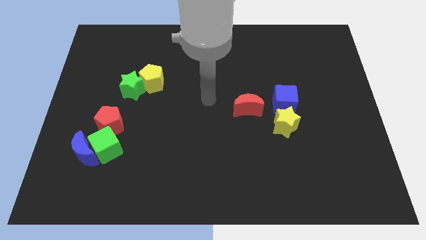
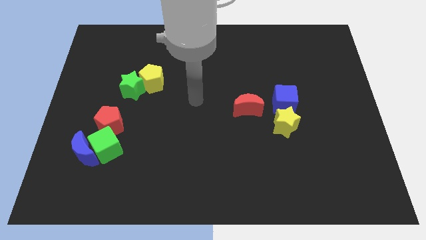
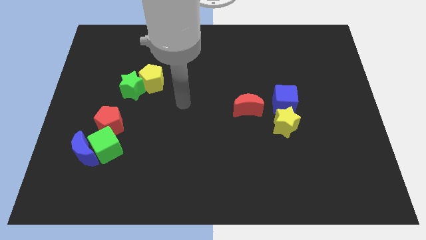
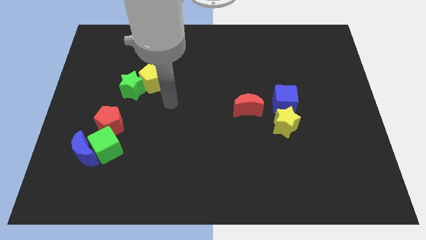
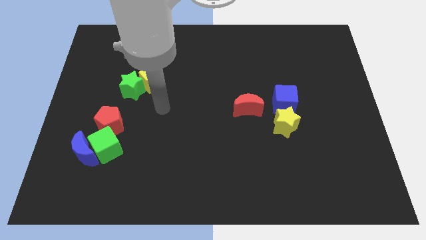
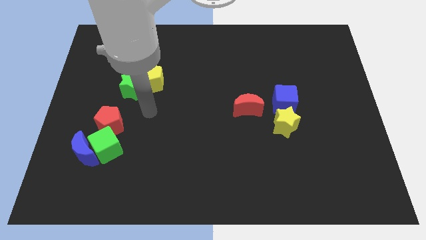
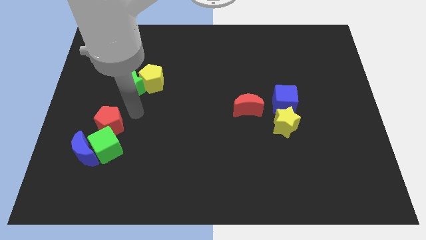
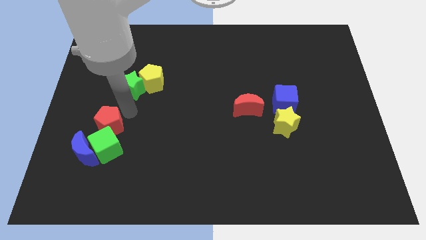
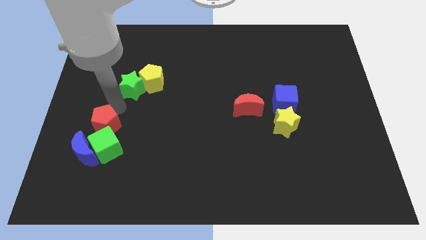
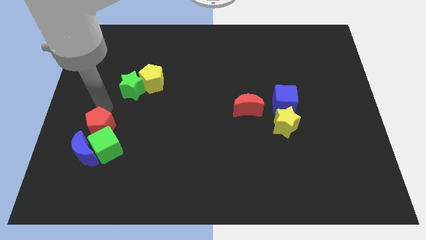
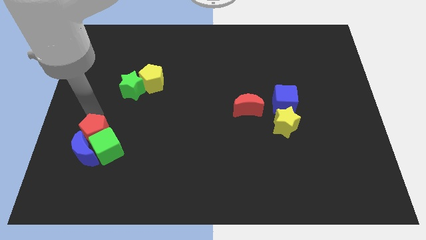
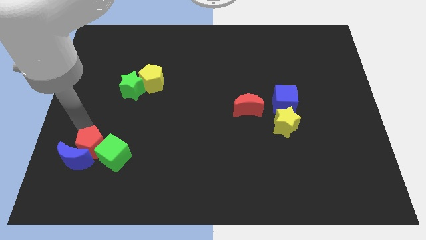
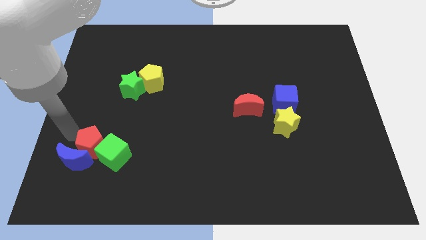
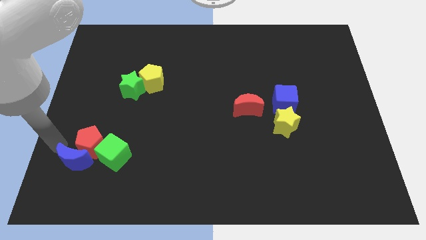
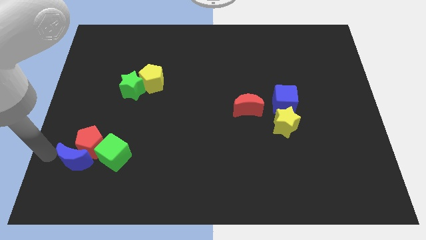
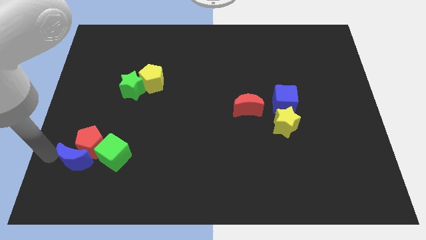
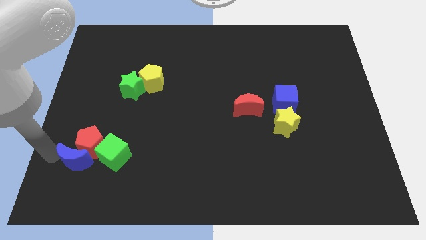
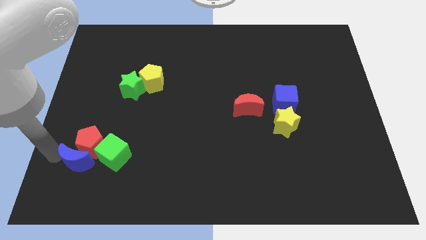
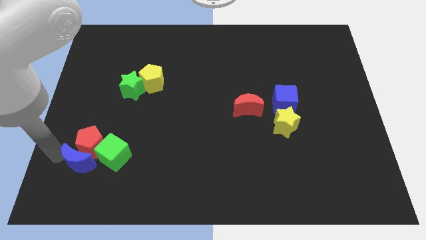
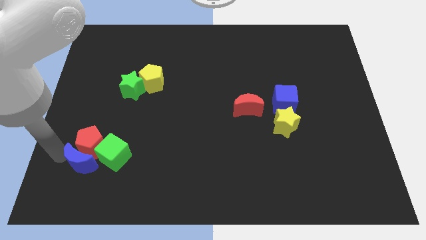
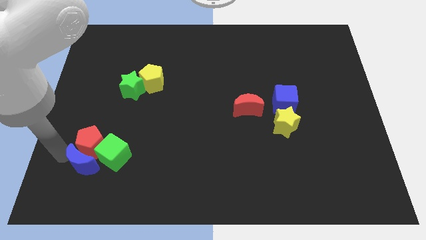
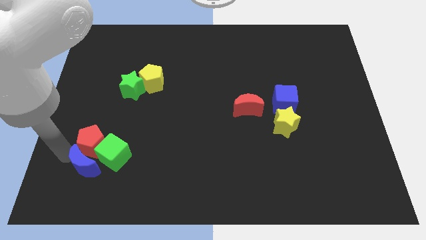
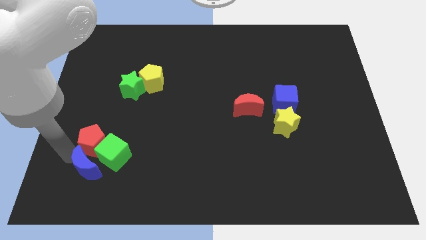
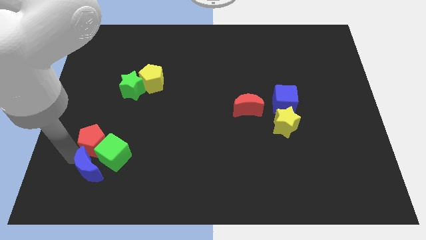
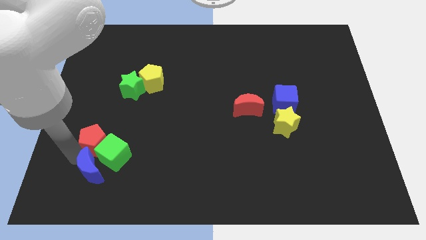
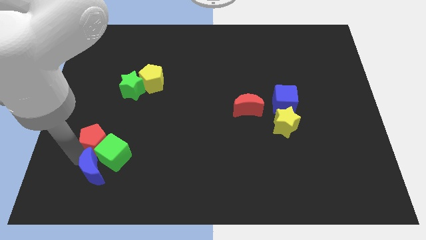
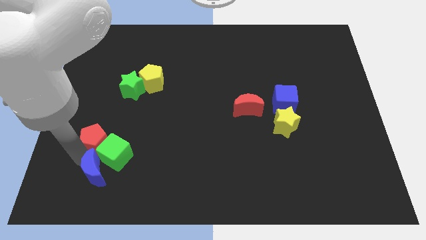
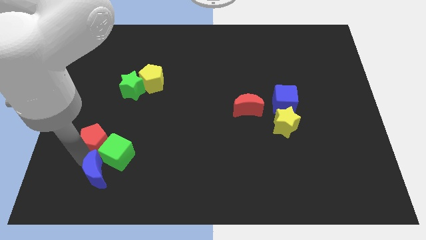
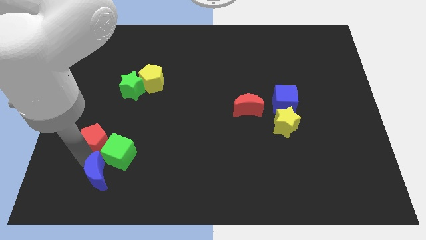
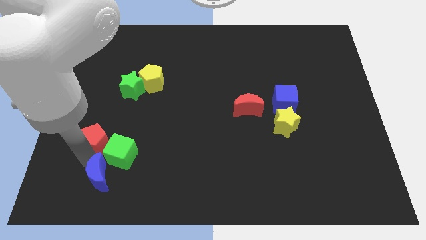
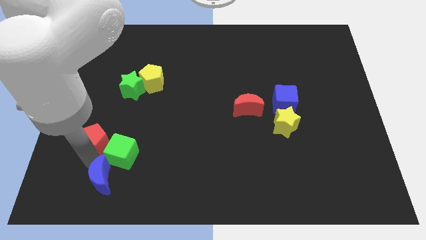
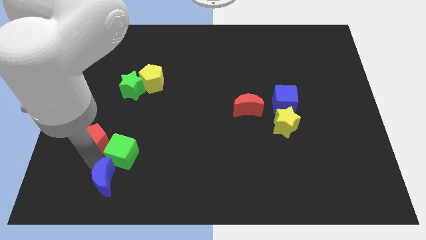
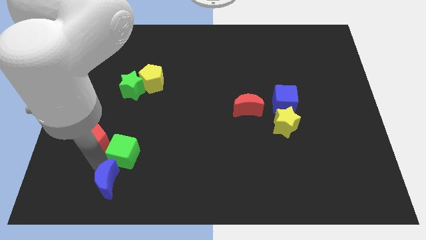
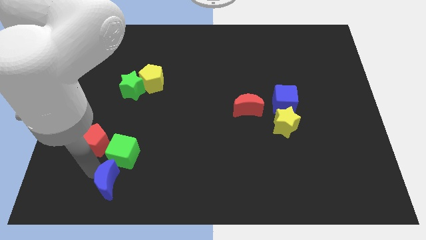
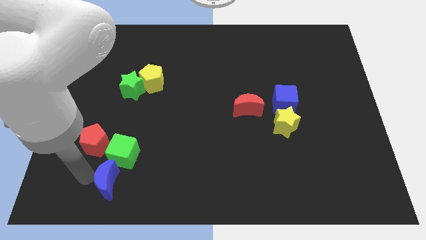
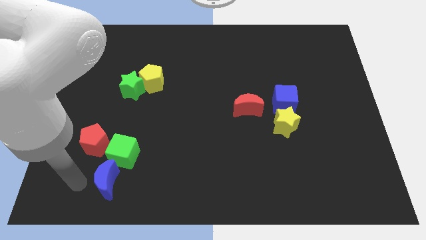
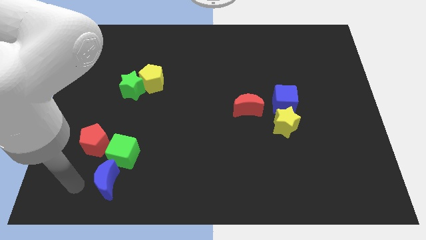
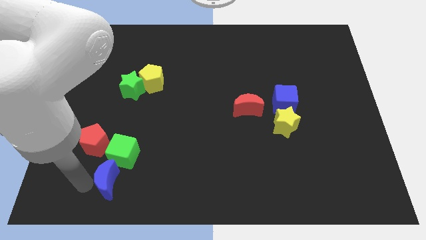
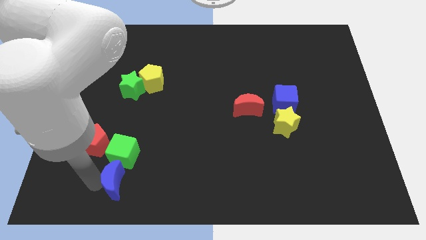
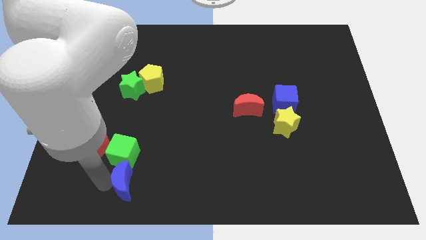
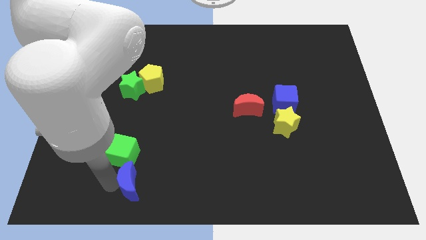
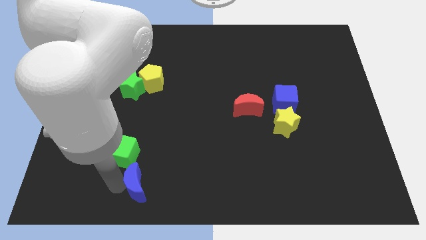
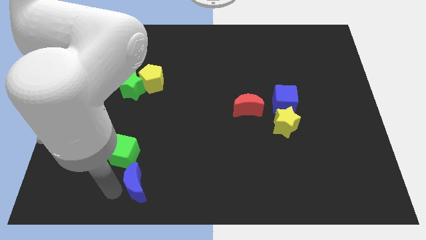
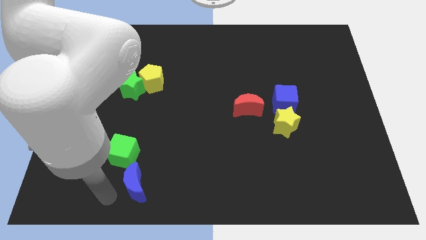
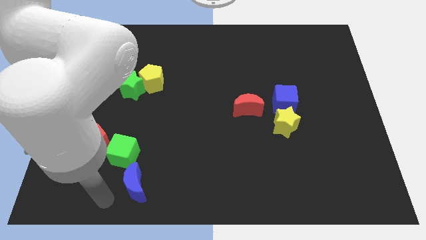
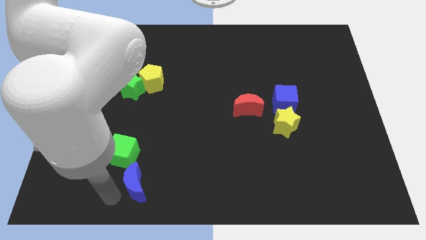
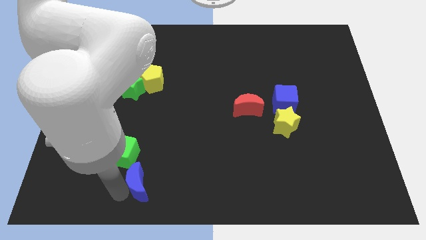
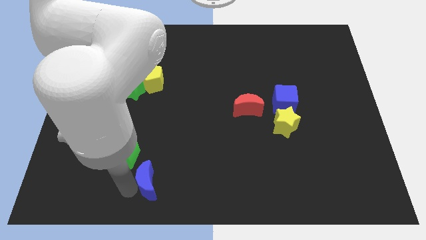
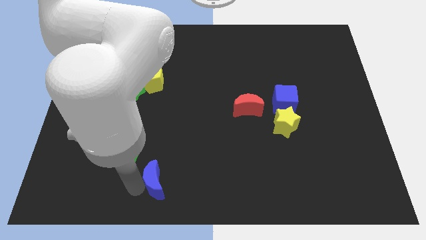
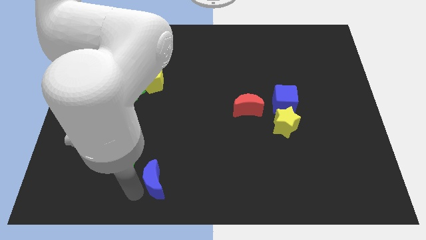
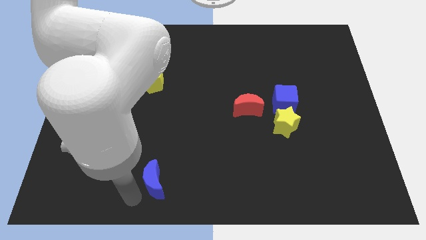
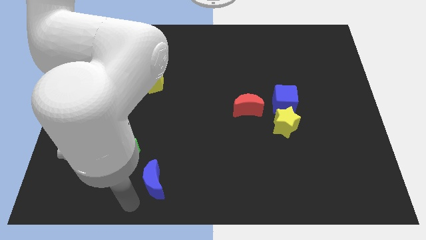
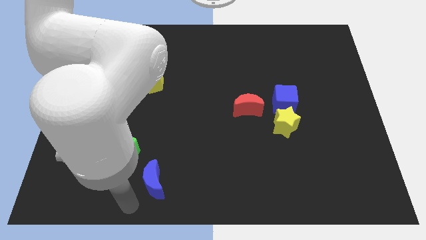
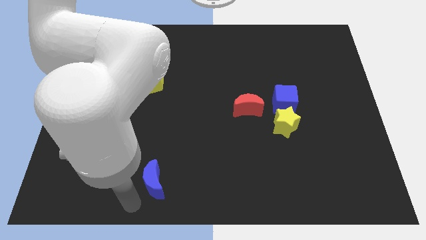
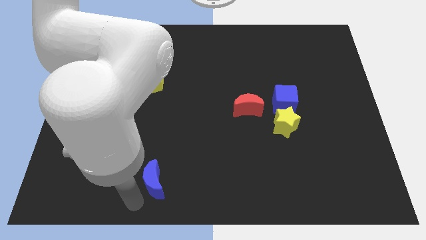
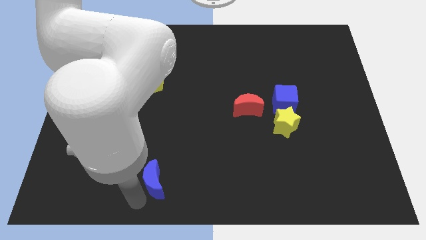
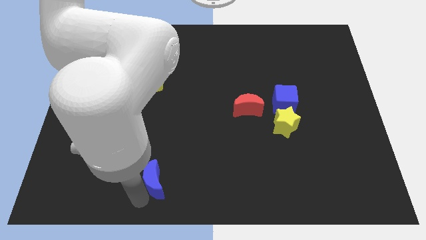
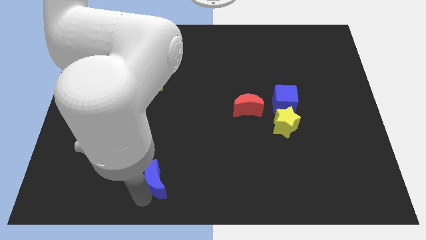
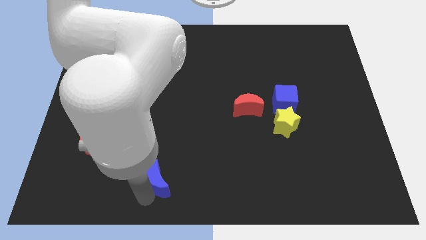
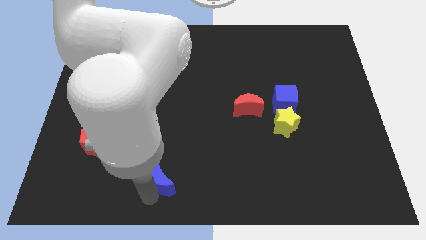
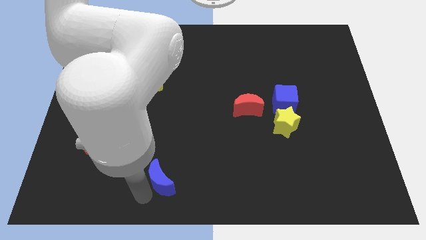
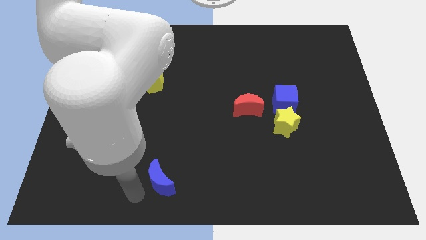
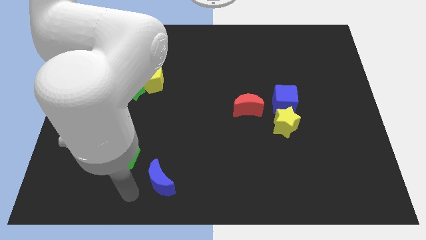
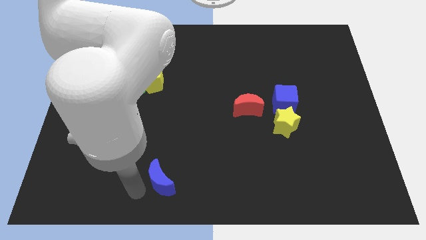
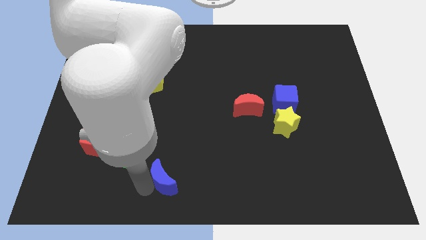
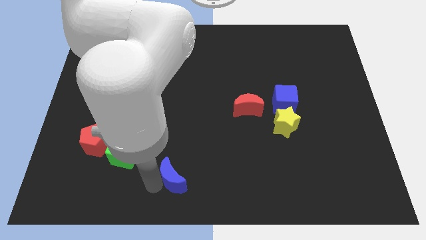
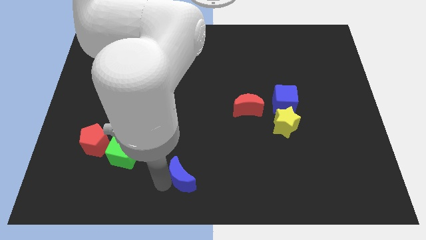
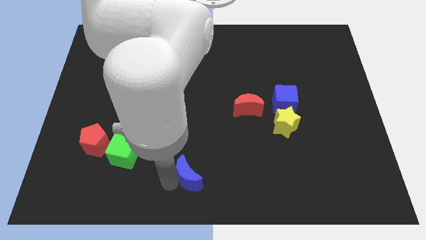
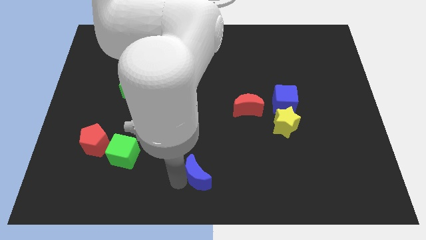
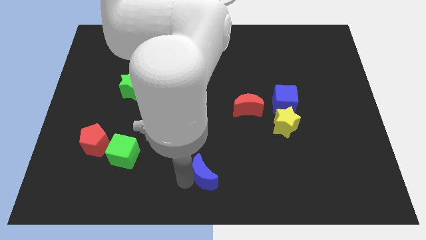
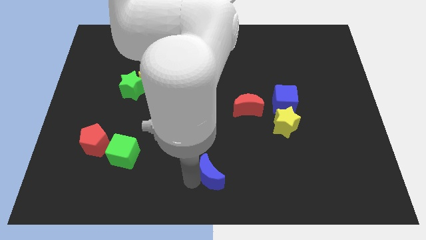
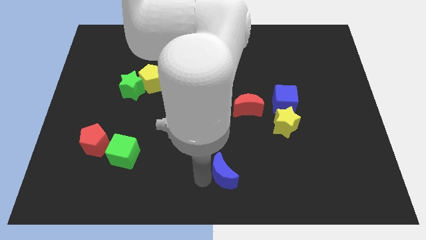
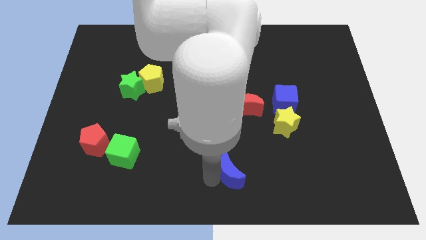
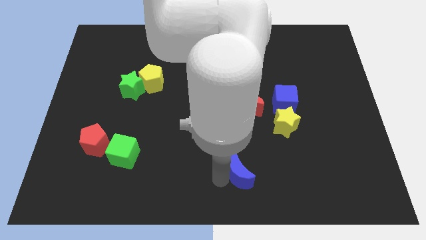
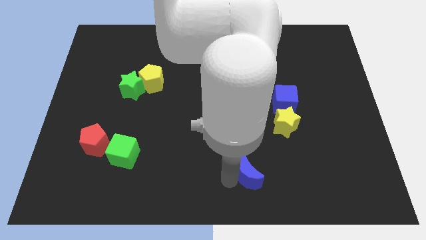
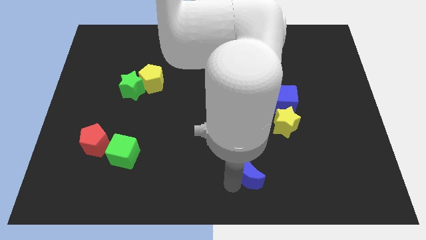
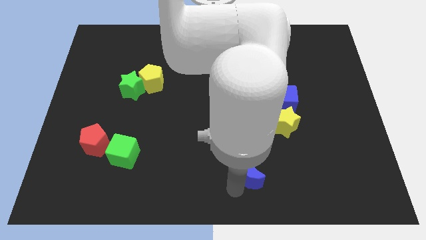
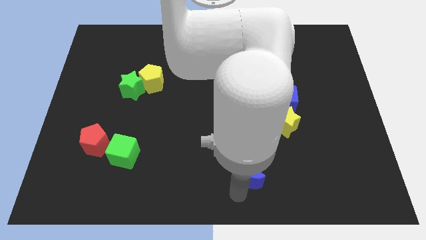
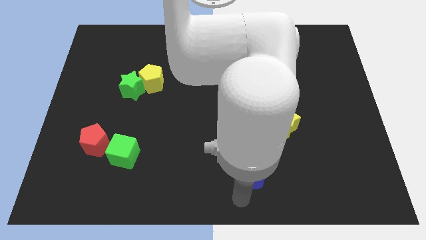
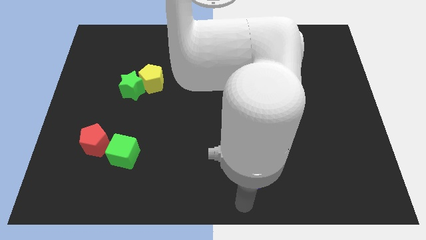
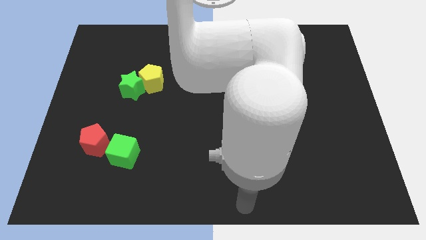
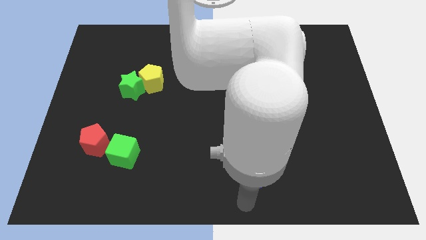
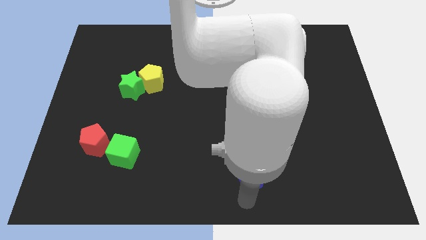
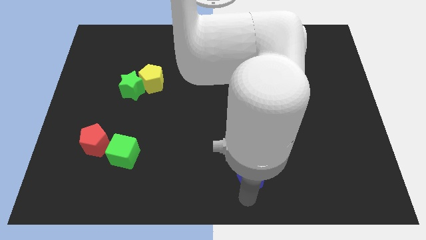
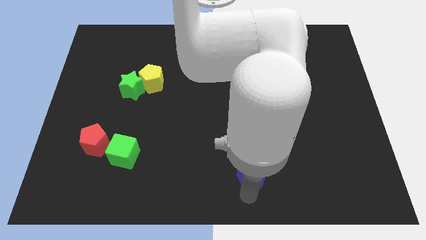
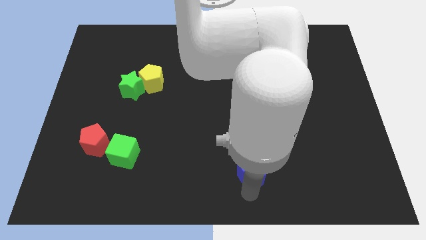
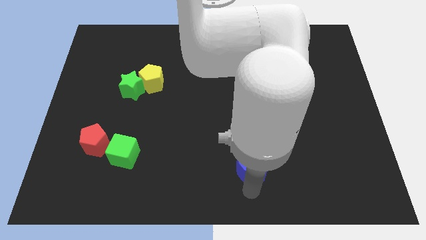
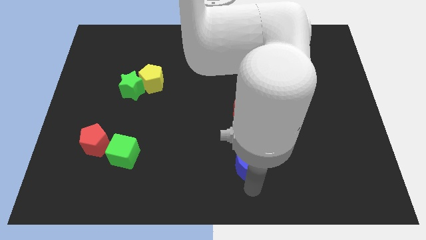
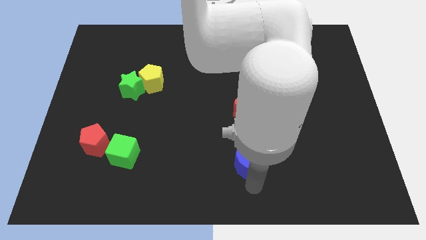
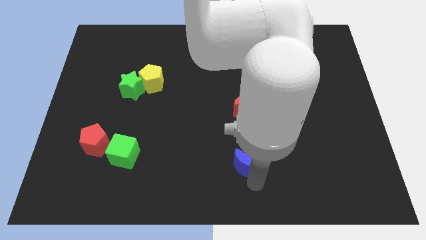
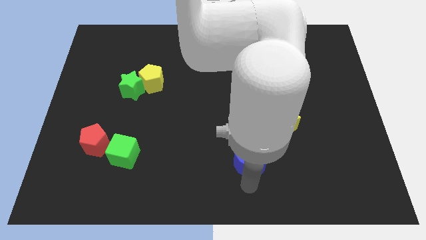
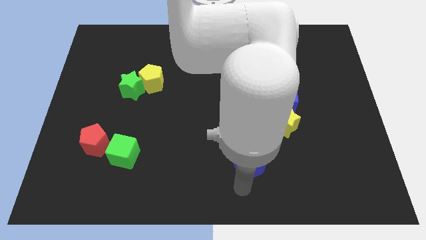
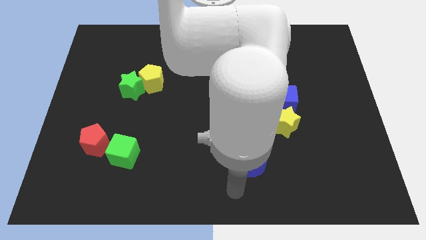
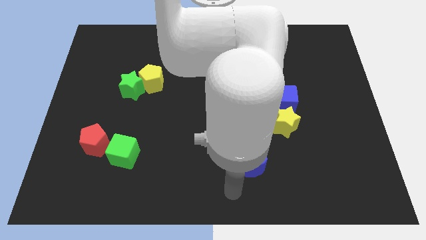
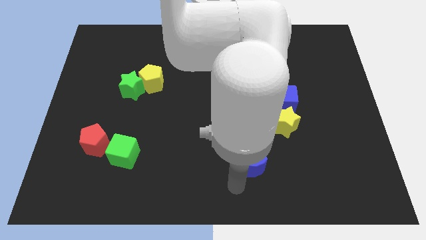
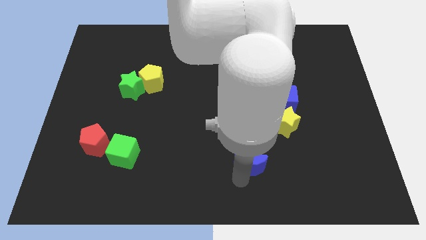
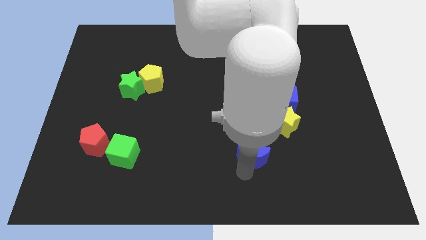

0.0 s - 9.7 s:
move the blue moon diagonally down and to the left of the yellow star
